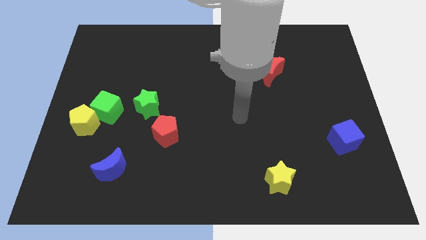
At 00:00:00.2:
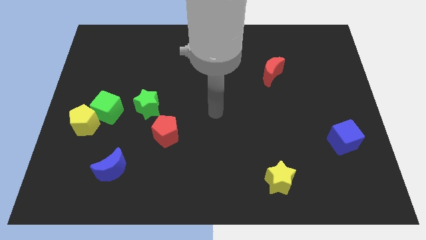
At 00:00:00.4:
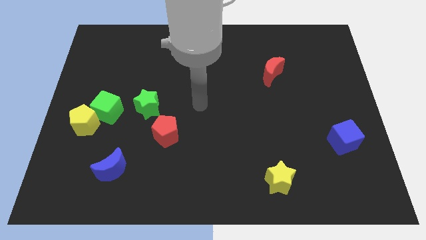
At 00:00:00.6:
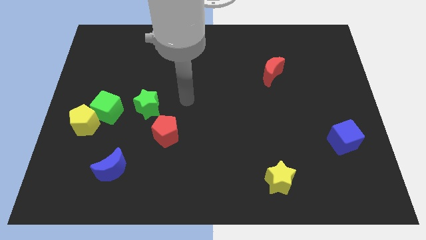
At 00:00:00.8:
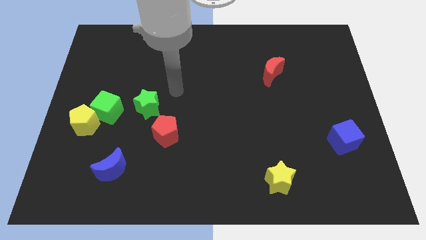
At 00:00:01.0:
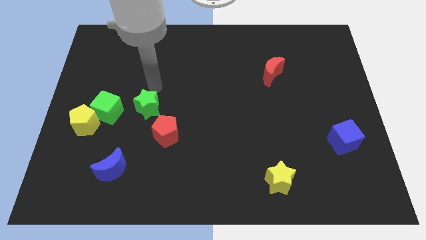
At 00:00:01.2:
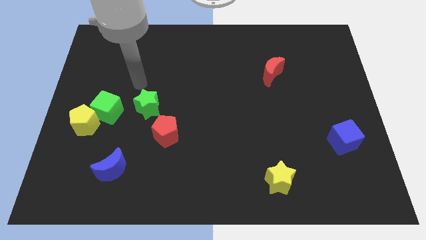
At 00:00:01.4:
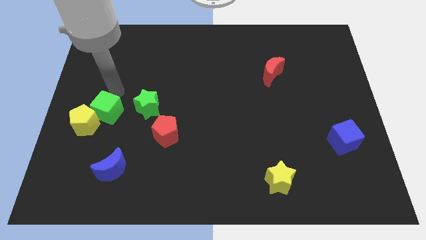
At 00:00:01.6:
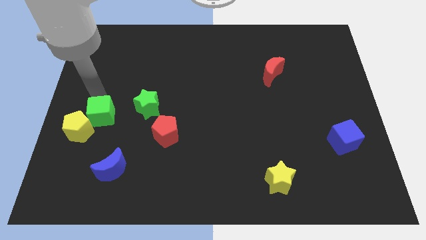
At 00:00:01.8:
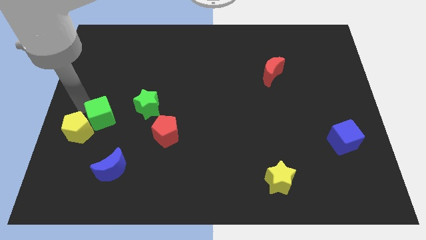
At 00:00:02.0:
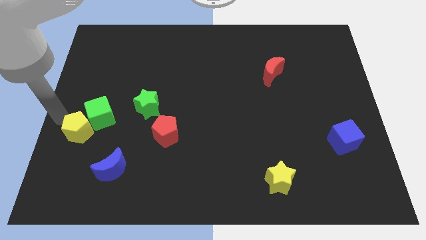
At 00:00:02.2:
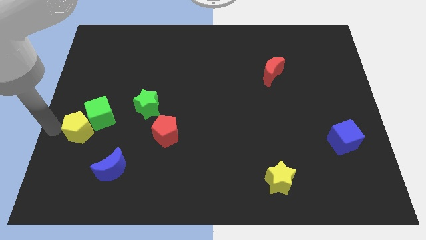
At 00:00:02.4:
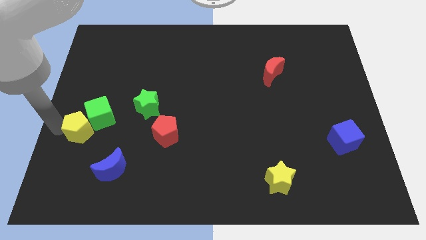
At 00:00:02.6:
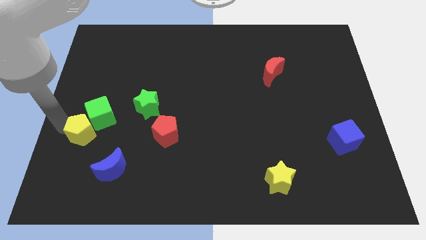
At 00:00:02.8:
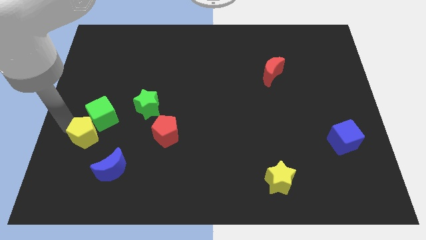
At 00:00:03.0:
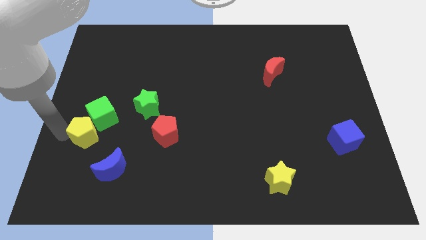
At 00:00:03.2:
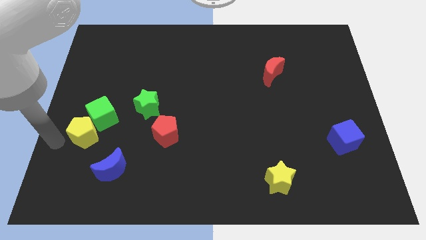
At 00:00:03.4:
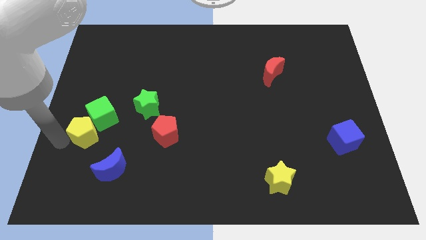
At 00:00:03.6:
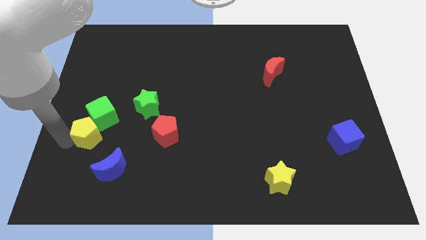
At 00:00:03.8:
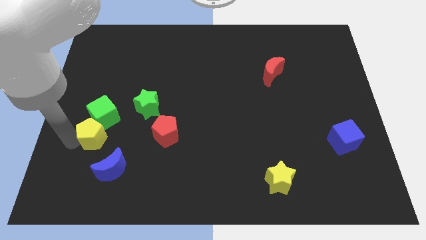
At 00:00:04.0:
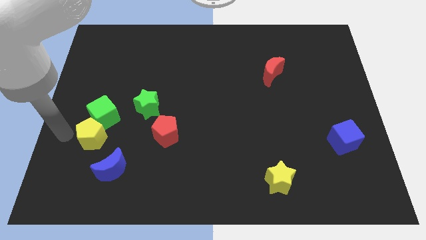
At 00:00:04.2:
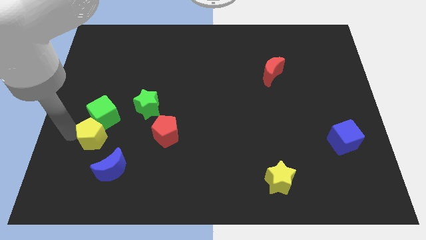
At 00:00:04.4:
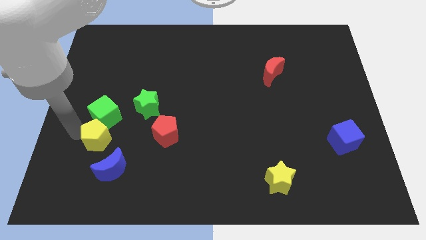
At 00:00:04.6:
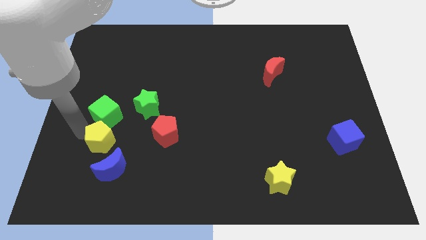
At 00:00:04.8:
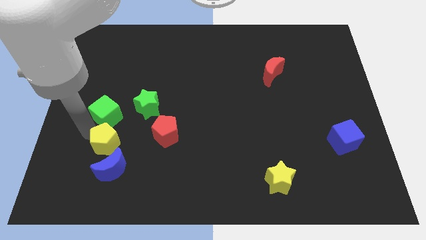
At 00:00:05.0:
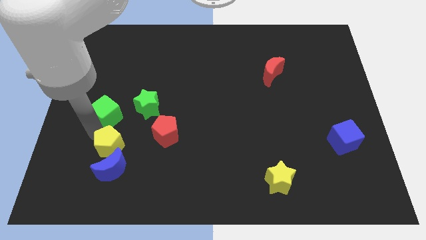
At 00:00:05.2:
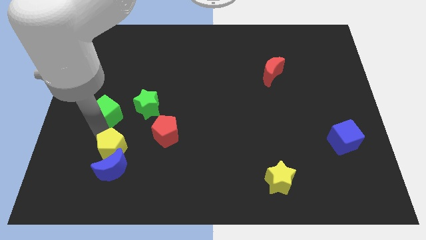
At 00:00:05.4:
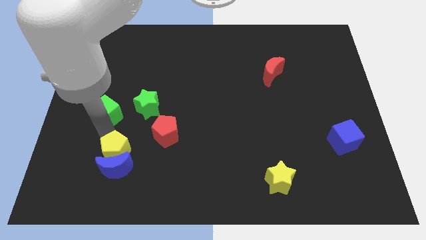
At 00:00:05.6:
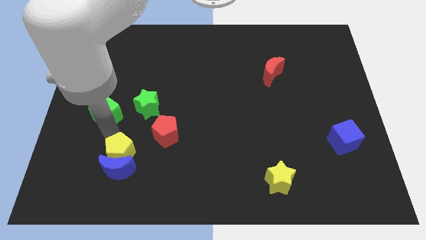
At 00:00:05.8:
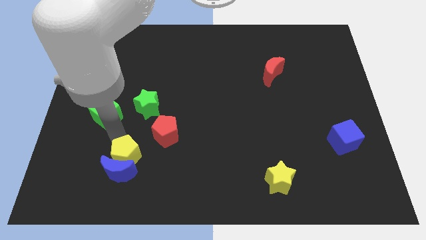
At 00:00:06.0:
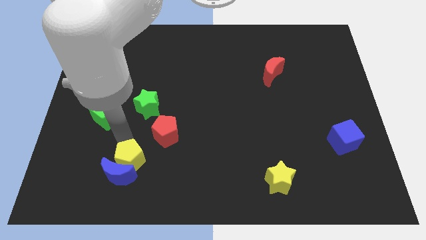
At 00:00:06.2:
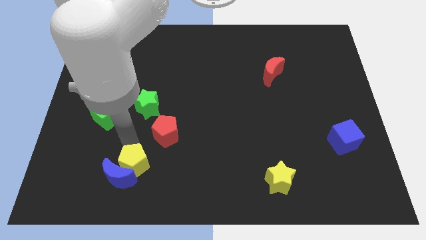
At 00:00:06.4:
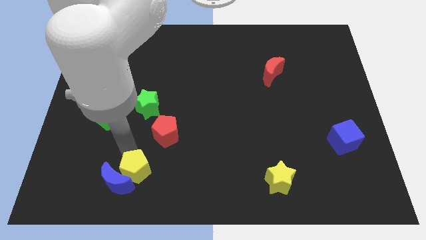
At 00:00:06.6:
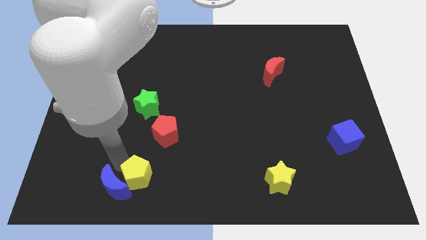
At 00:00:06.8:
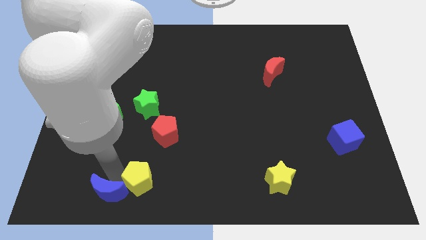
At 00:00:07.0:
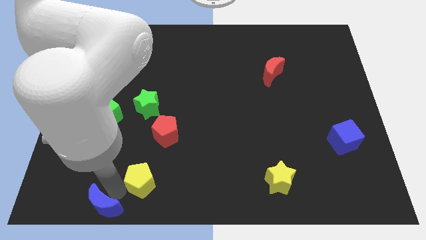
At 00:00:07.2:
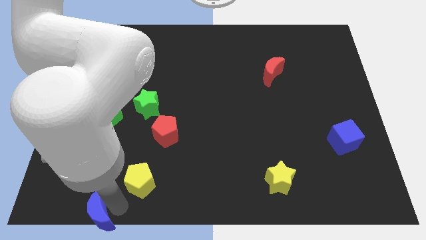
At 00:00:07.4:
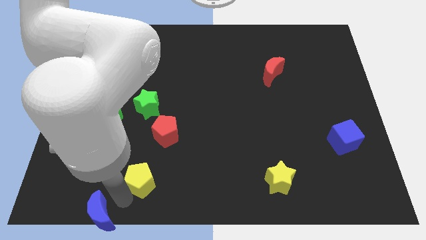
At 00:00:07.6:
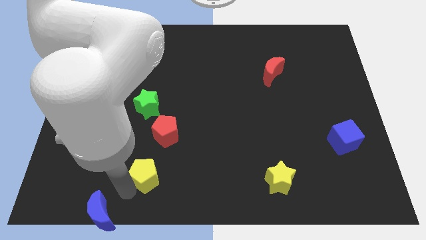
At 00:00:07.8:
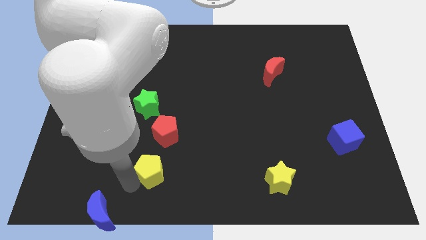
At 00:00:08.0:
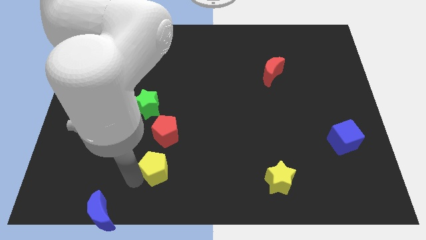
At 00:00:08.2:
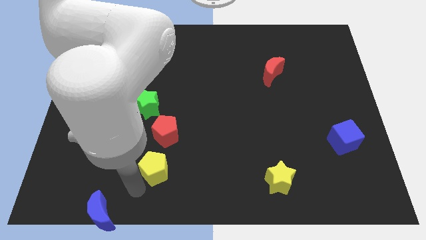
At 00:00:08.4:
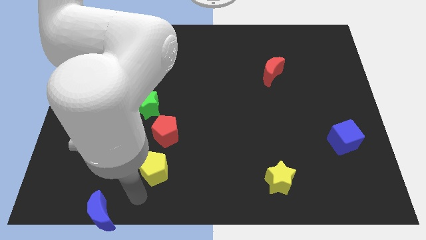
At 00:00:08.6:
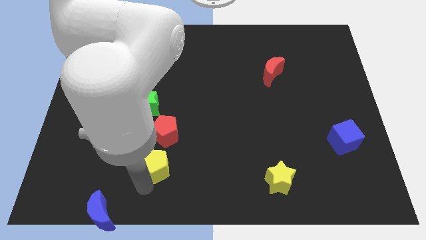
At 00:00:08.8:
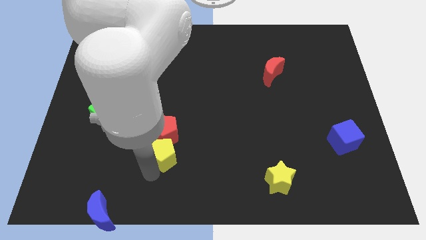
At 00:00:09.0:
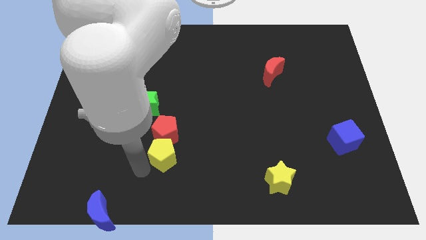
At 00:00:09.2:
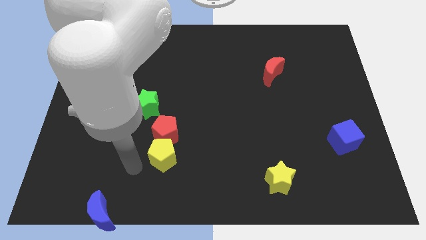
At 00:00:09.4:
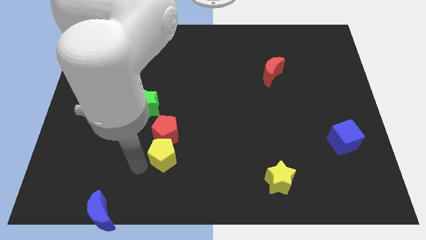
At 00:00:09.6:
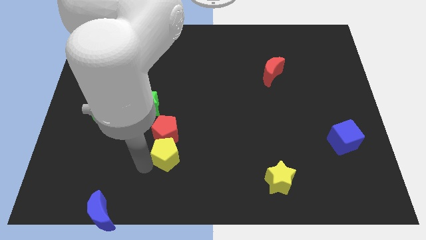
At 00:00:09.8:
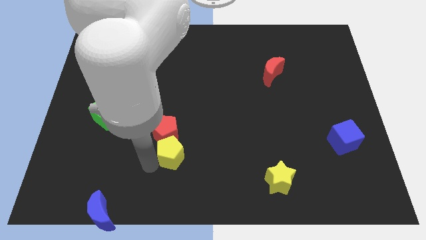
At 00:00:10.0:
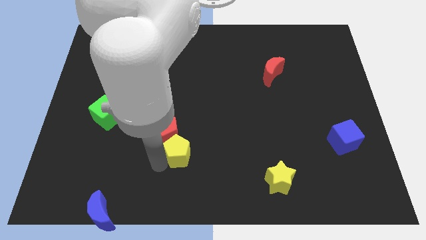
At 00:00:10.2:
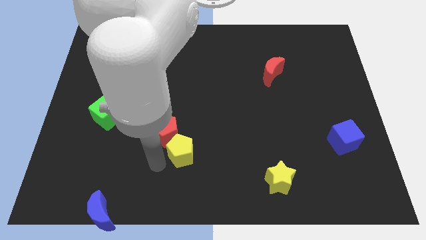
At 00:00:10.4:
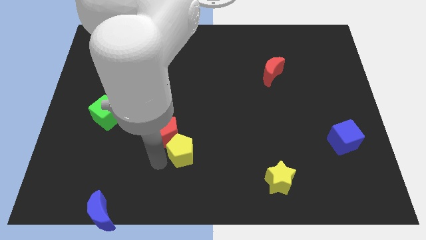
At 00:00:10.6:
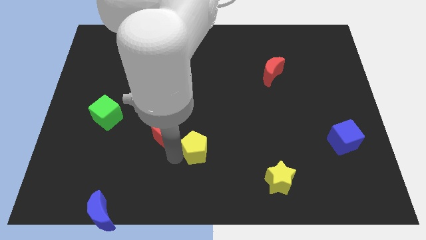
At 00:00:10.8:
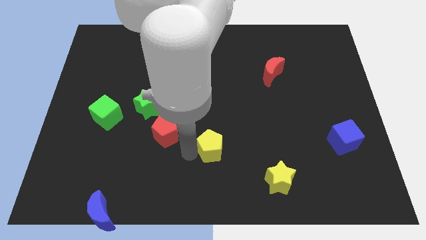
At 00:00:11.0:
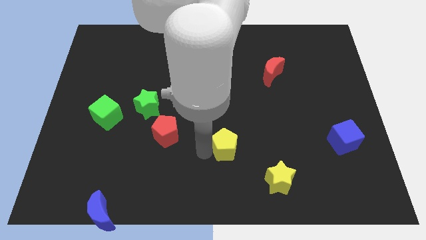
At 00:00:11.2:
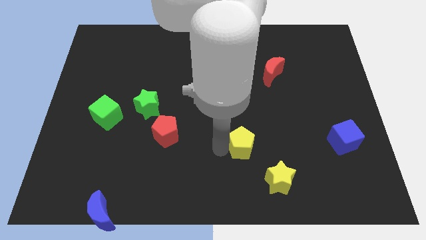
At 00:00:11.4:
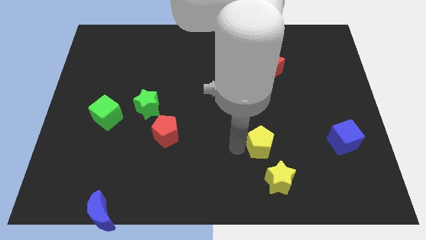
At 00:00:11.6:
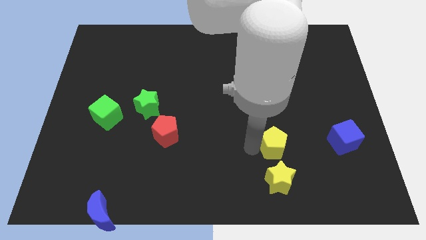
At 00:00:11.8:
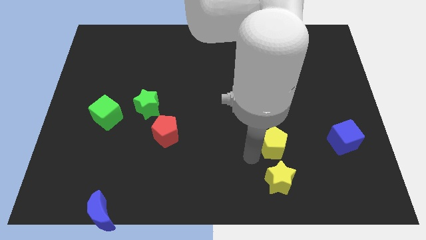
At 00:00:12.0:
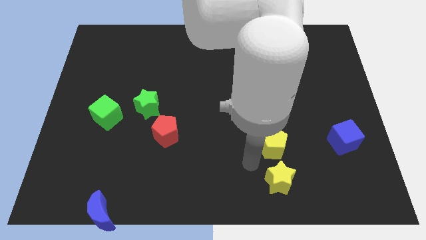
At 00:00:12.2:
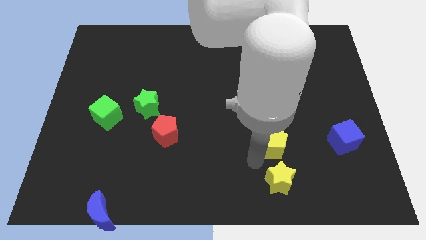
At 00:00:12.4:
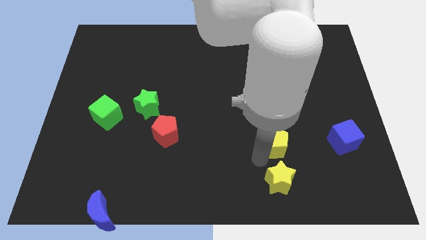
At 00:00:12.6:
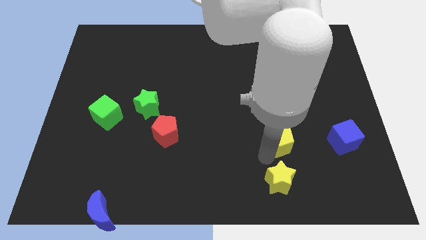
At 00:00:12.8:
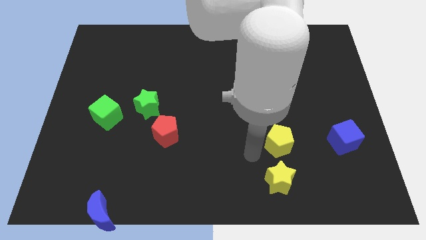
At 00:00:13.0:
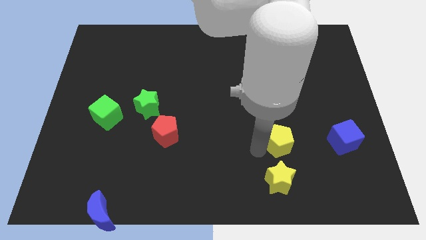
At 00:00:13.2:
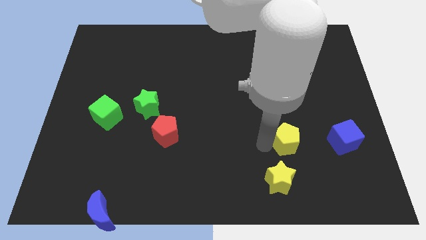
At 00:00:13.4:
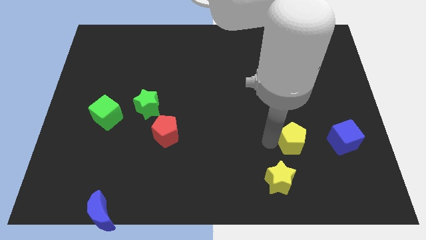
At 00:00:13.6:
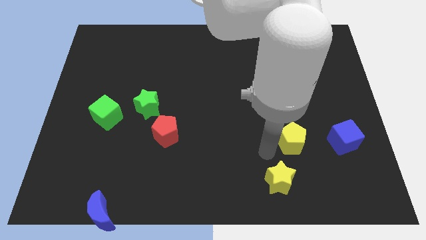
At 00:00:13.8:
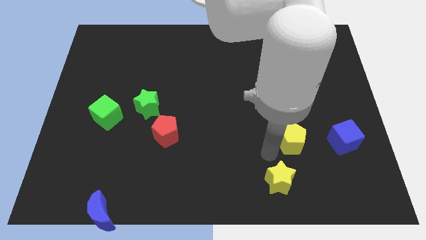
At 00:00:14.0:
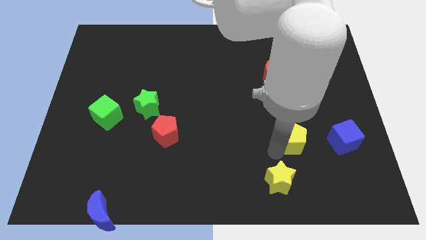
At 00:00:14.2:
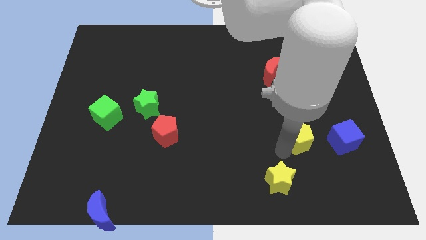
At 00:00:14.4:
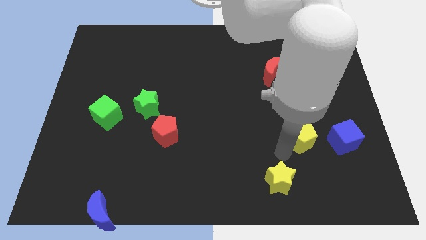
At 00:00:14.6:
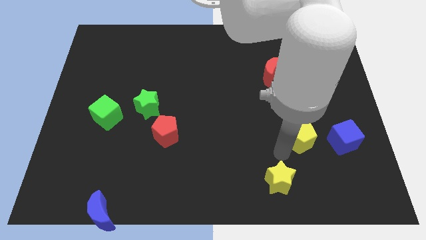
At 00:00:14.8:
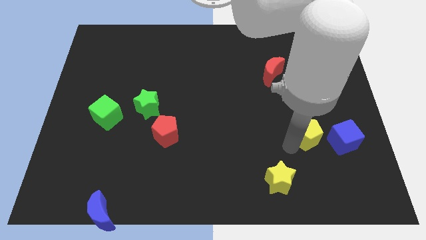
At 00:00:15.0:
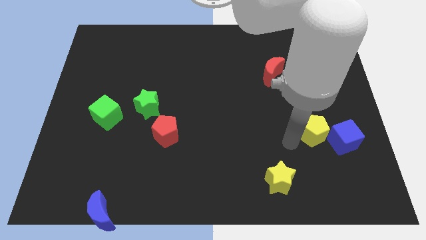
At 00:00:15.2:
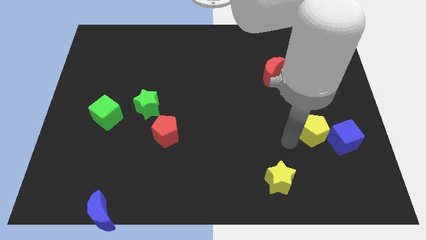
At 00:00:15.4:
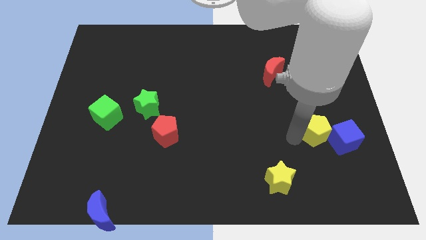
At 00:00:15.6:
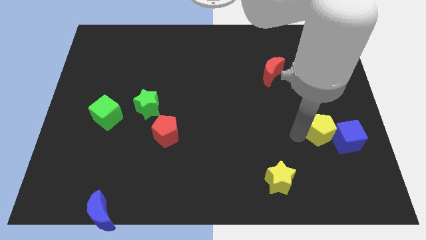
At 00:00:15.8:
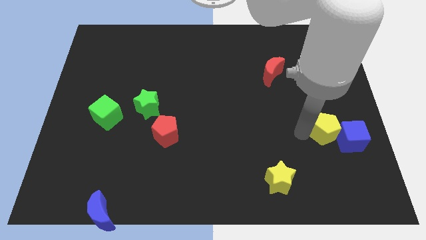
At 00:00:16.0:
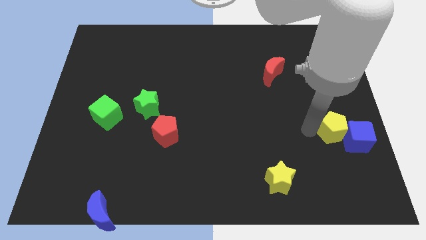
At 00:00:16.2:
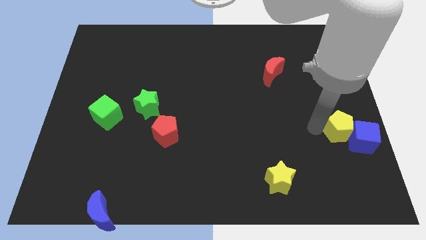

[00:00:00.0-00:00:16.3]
push the yellow pentagon to the center right
